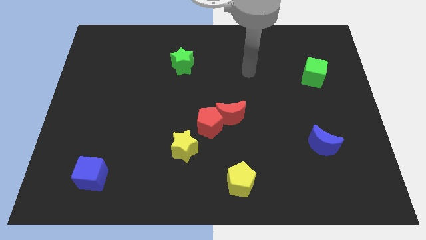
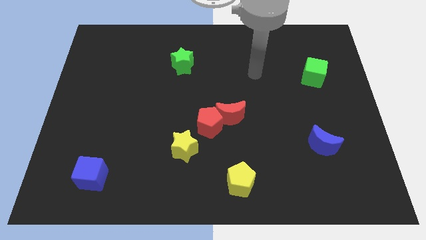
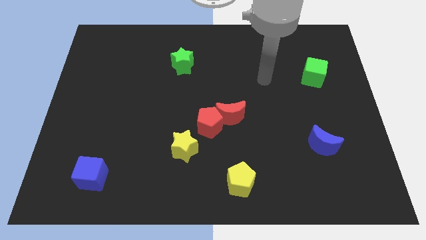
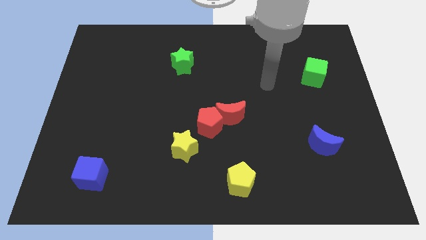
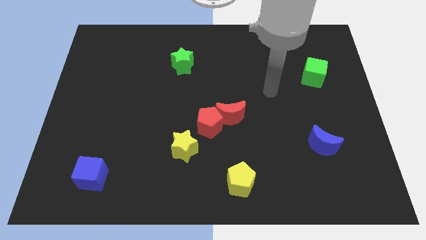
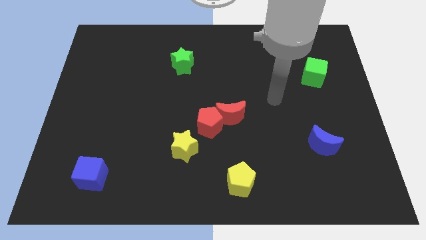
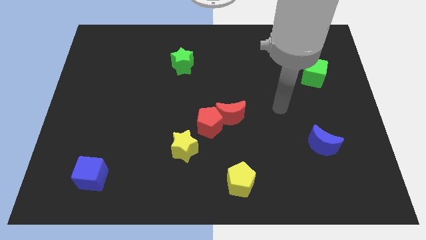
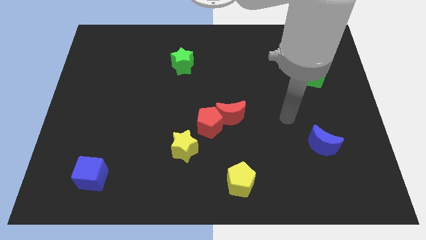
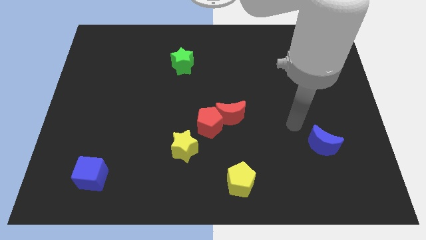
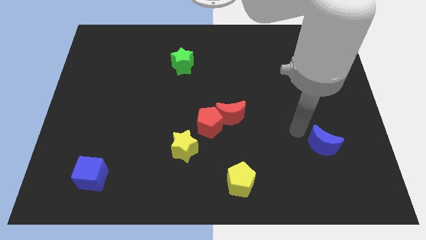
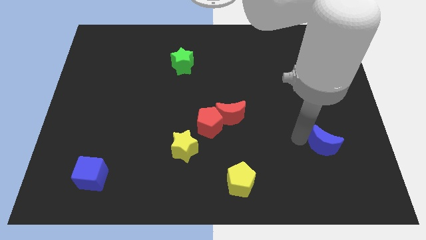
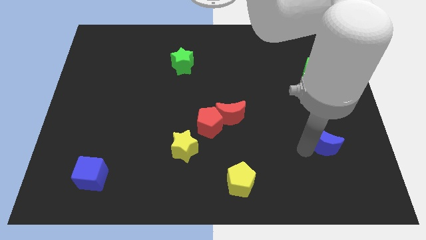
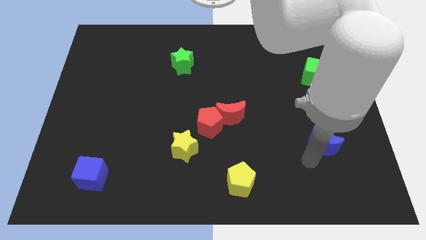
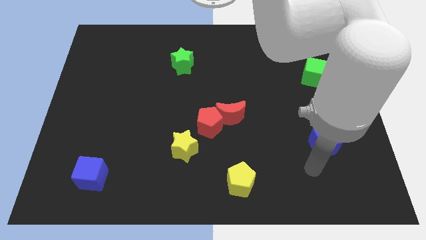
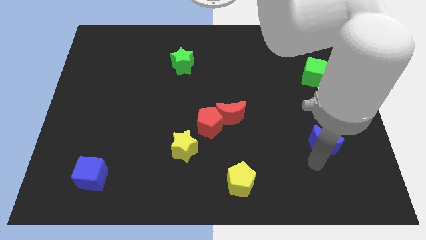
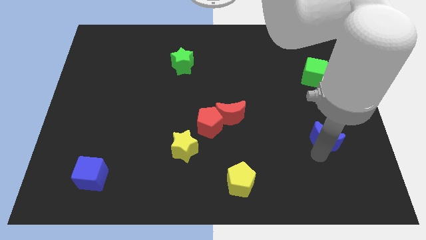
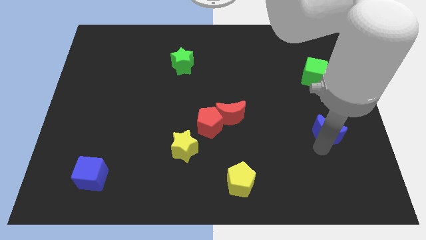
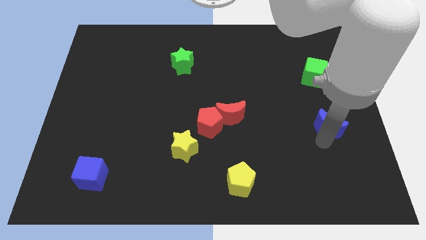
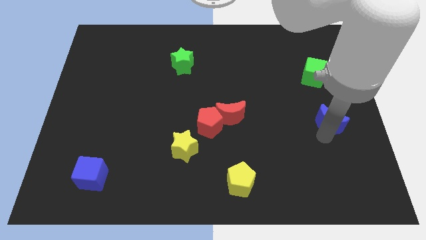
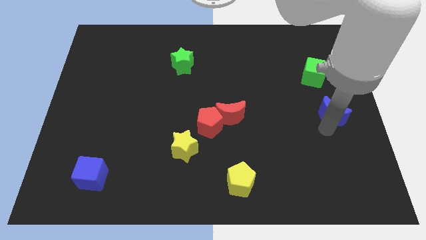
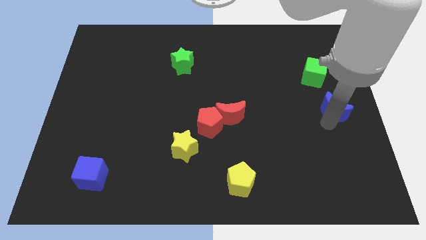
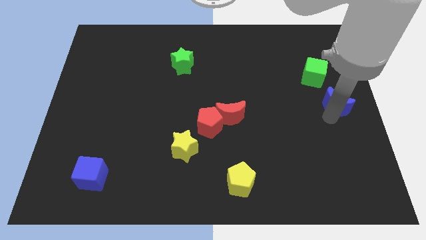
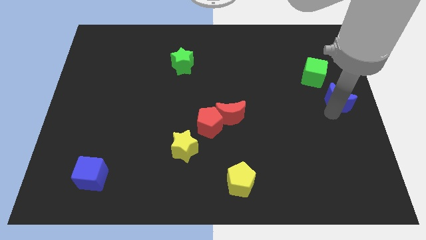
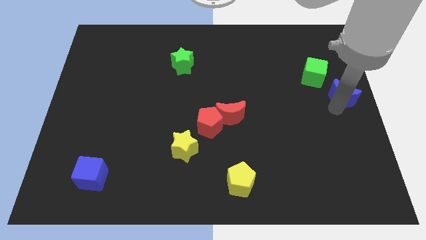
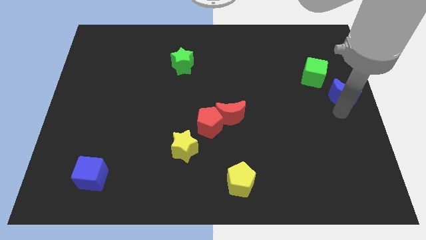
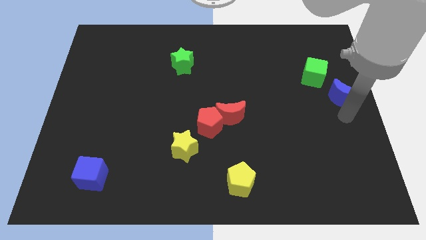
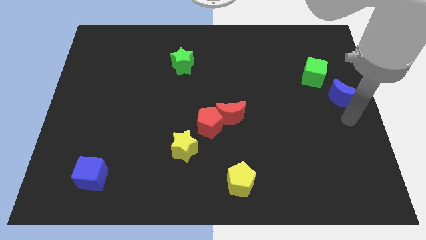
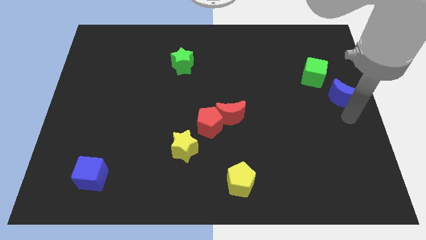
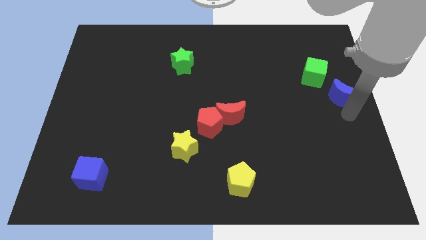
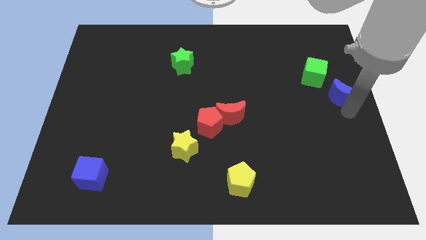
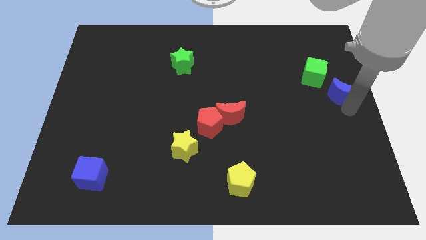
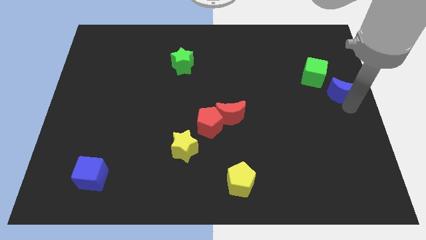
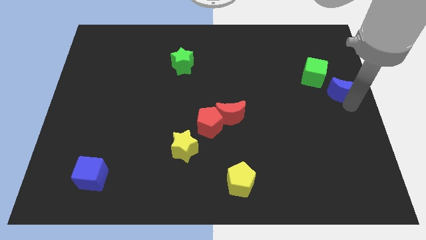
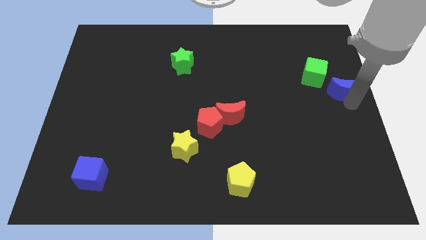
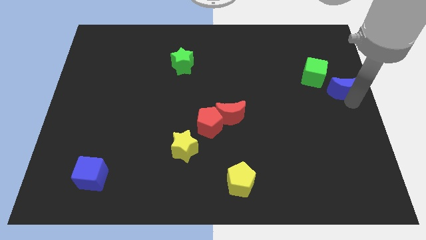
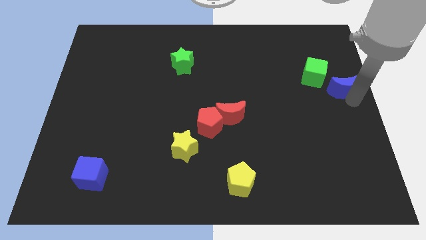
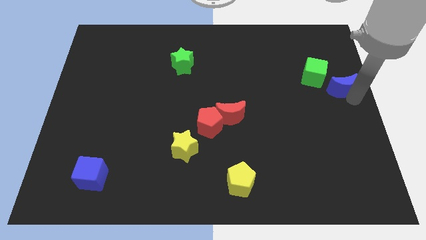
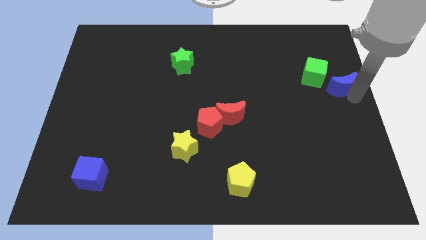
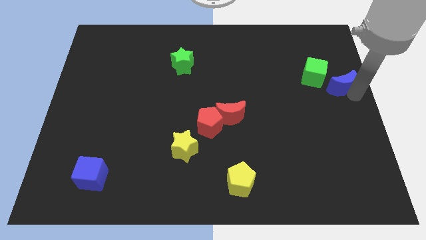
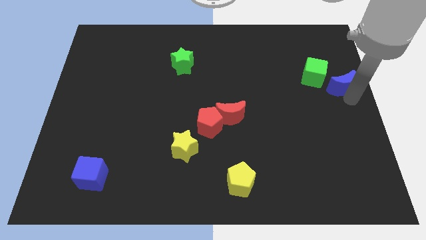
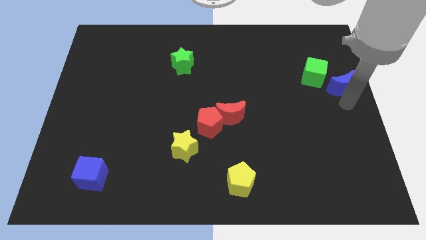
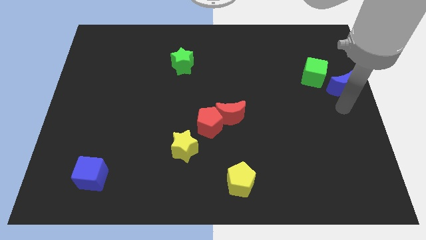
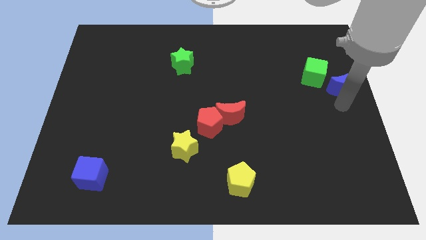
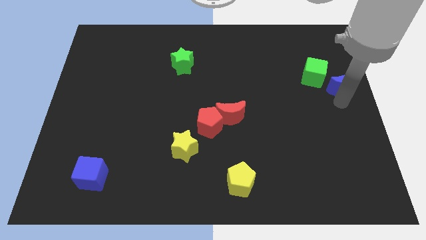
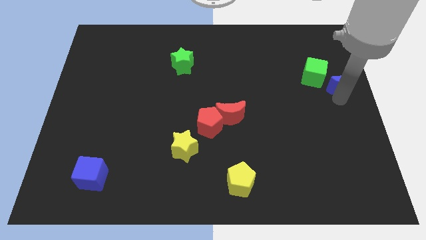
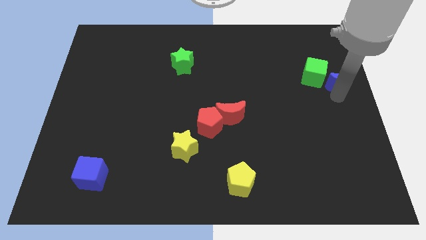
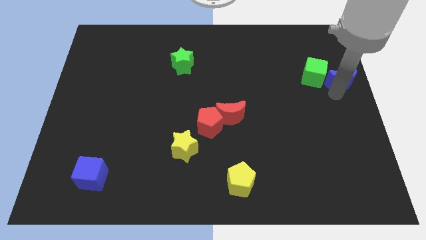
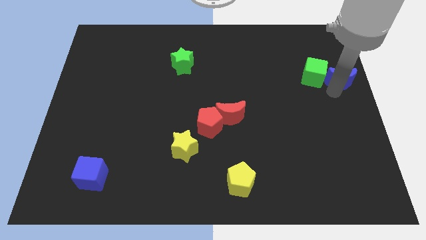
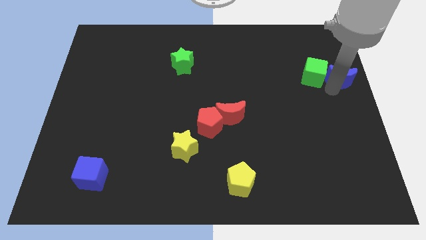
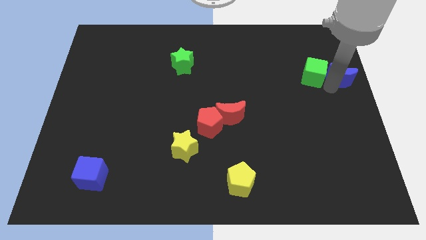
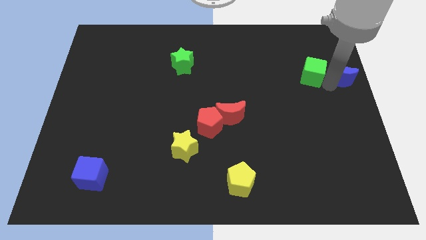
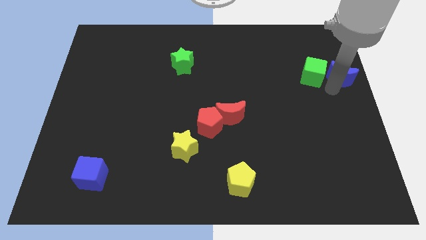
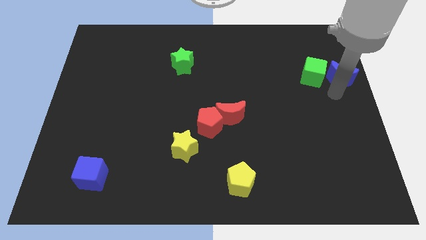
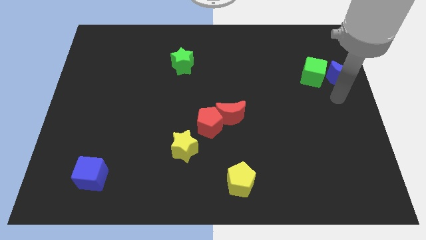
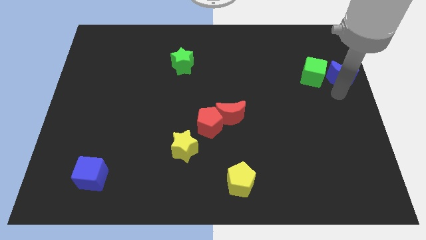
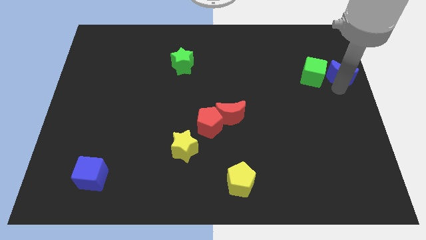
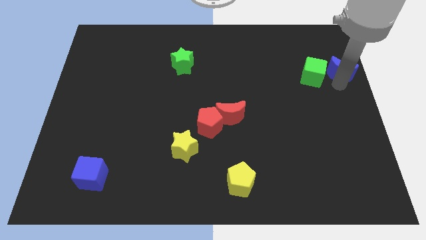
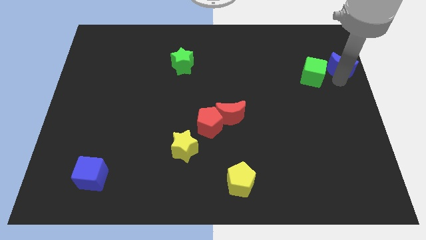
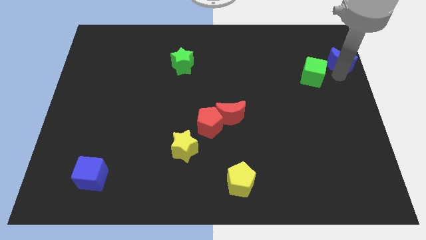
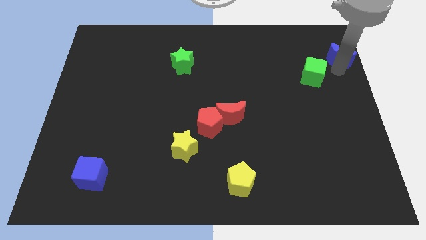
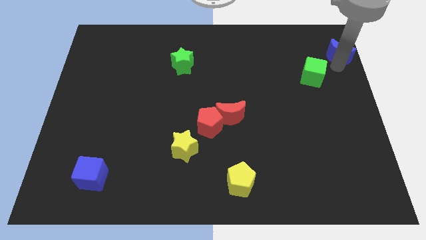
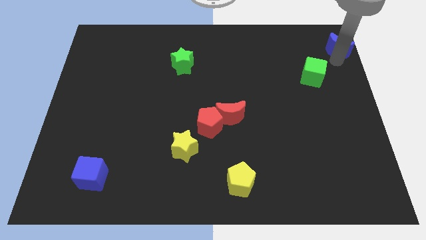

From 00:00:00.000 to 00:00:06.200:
put the blue moon to the top right corner

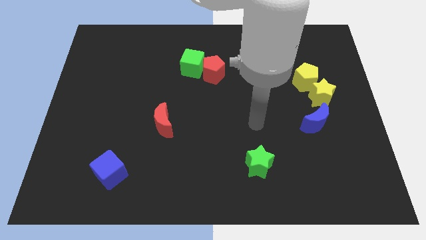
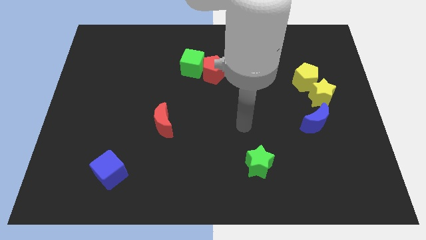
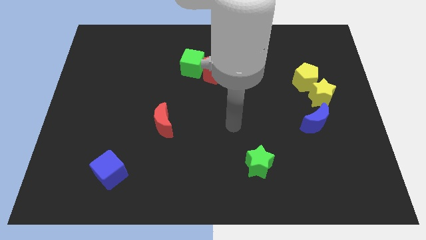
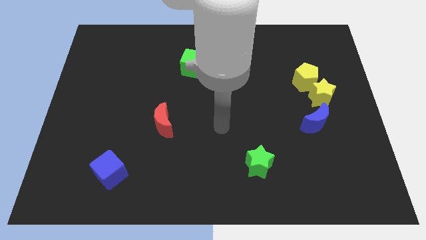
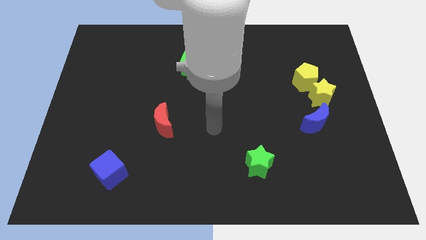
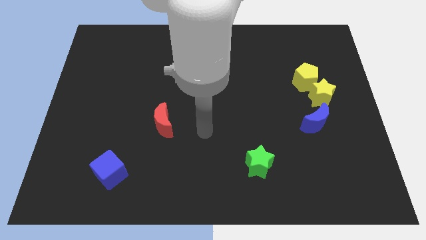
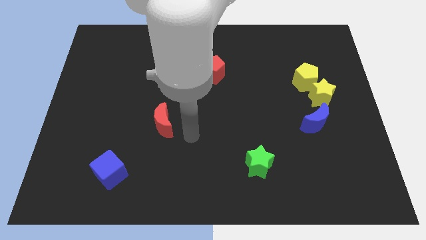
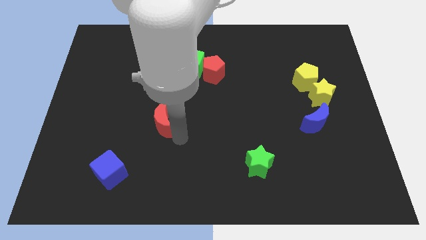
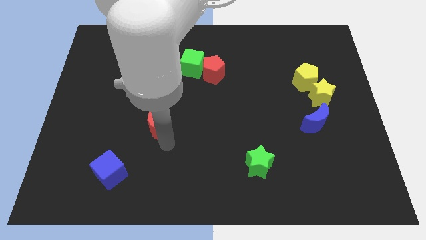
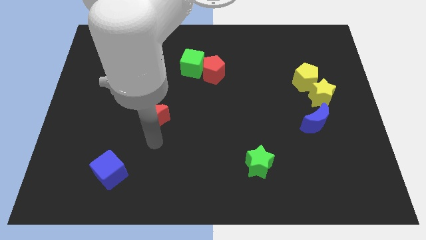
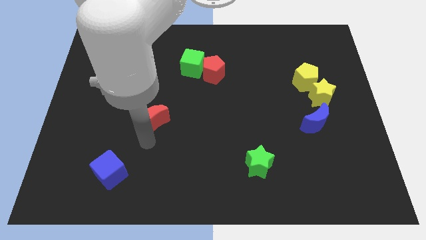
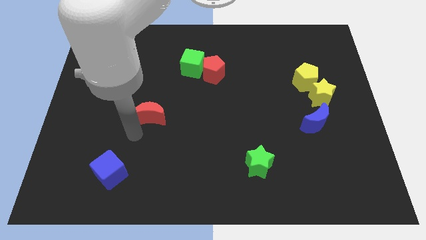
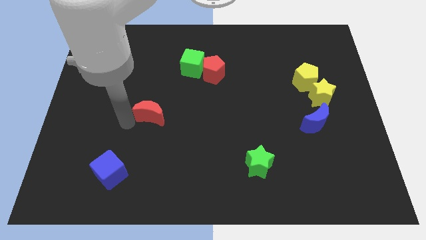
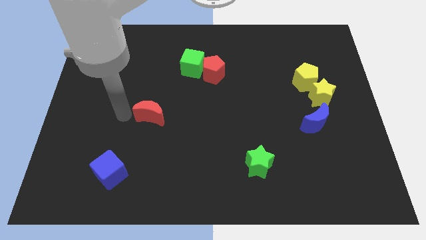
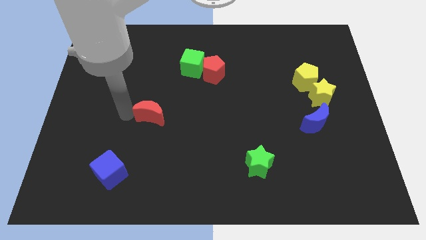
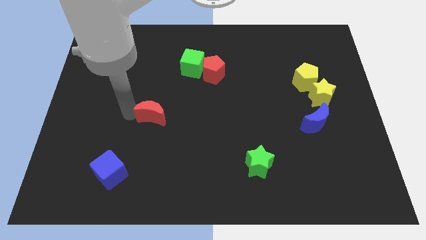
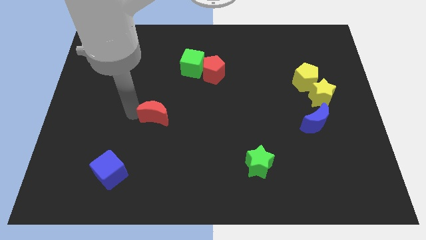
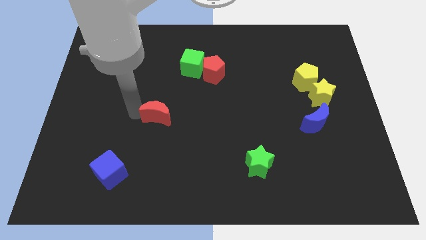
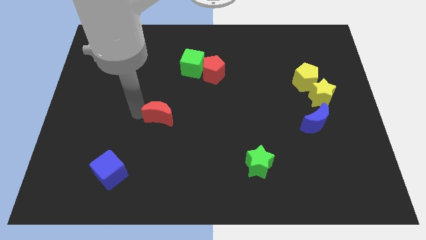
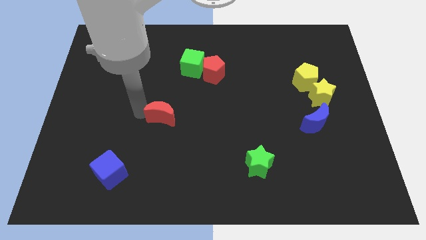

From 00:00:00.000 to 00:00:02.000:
push the red moon to the middle of the board
